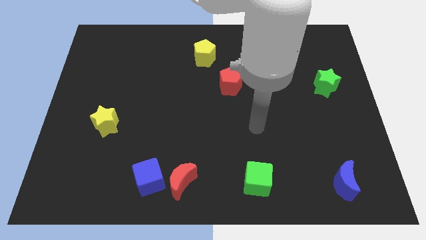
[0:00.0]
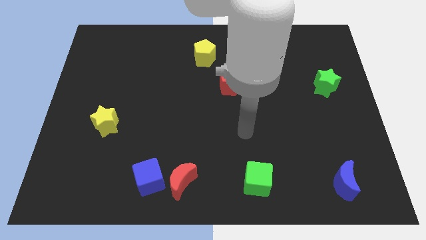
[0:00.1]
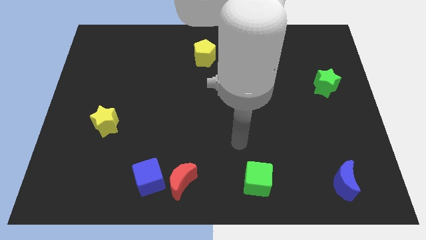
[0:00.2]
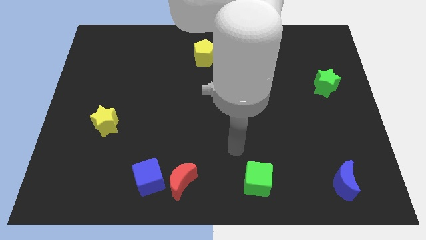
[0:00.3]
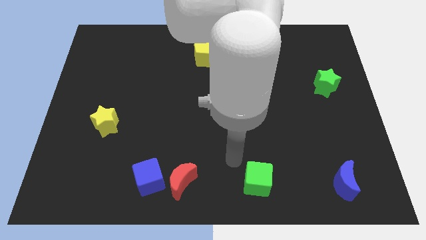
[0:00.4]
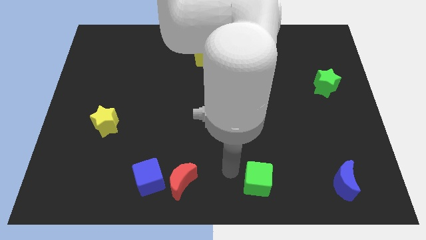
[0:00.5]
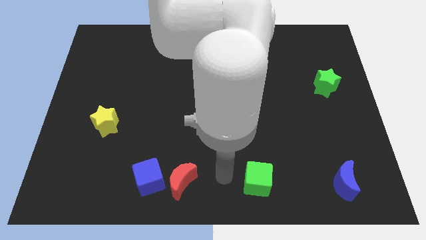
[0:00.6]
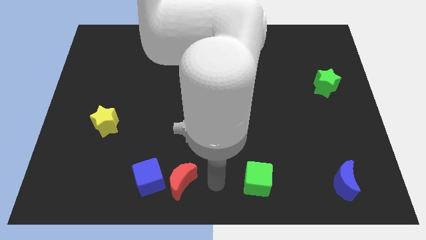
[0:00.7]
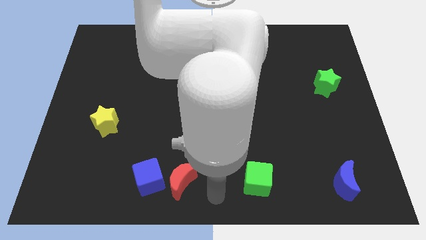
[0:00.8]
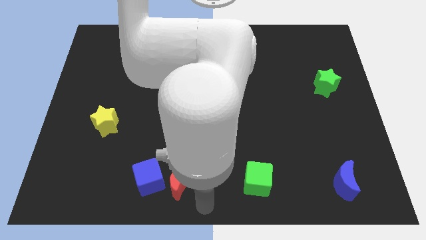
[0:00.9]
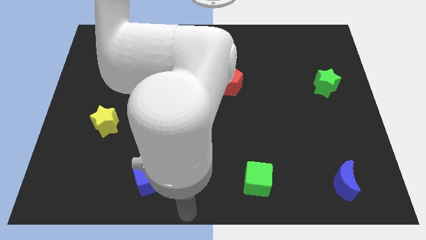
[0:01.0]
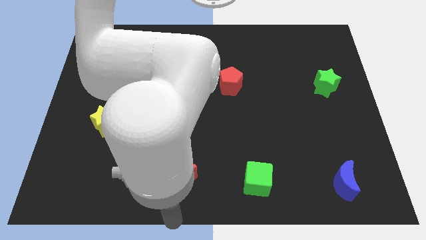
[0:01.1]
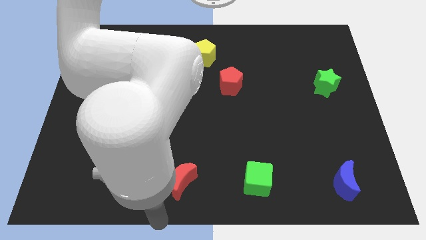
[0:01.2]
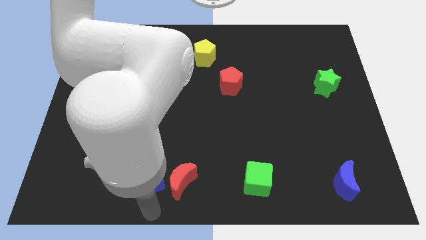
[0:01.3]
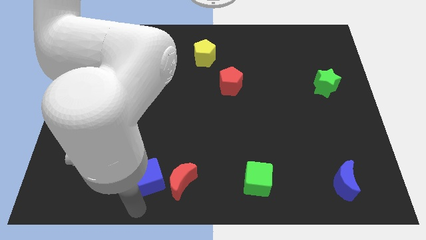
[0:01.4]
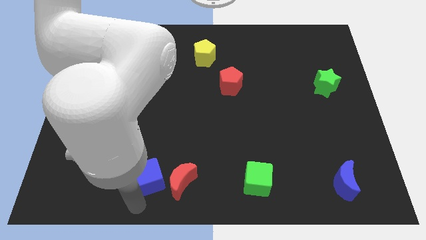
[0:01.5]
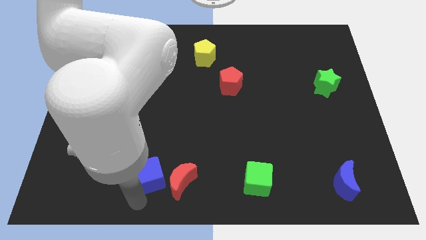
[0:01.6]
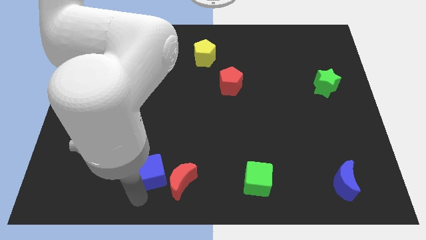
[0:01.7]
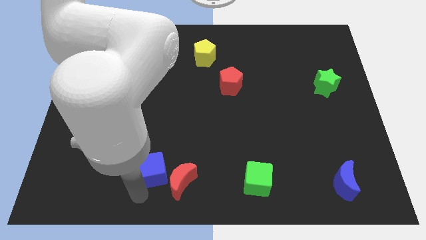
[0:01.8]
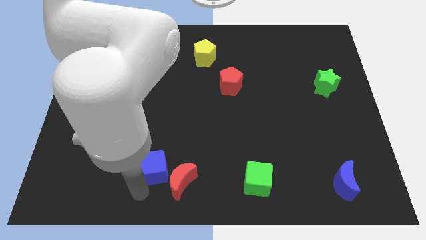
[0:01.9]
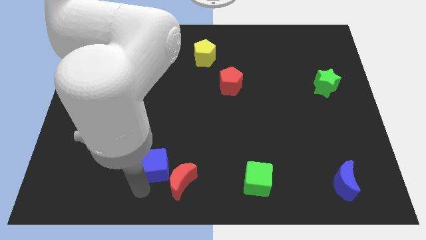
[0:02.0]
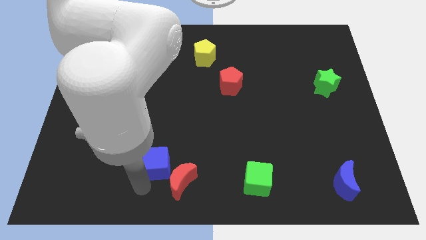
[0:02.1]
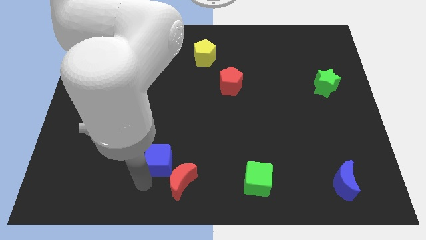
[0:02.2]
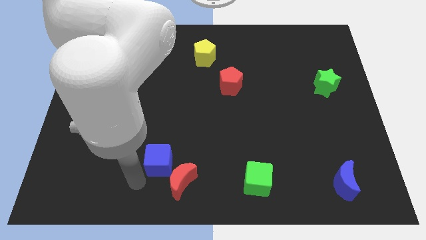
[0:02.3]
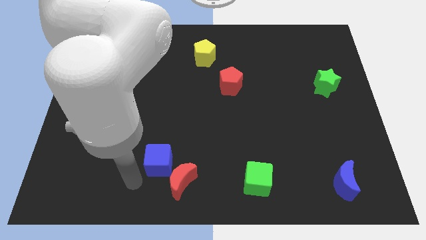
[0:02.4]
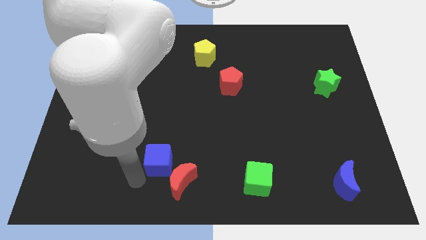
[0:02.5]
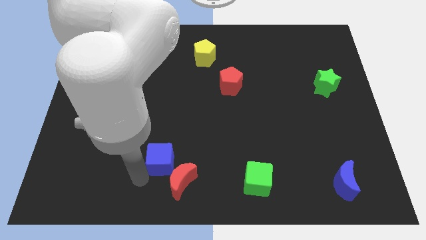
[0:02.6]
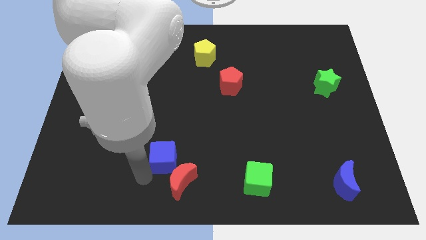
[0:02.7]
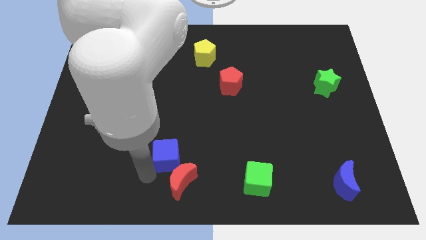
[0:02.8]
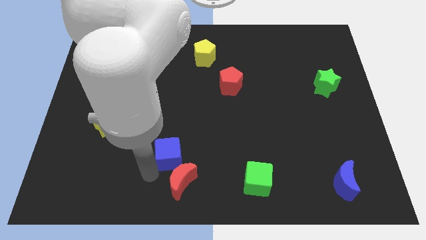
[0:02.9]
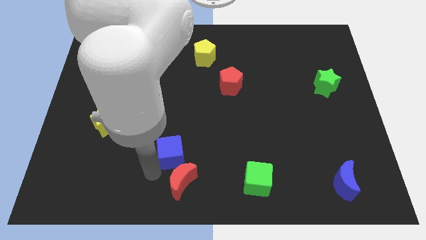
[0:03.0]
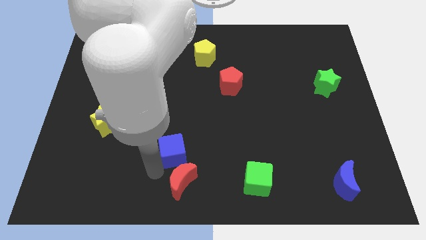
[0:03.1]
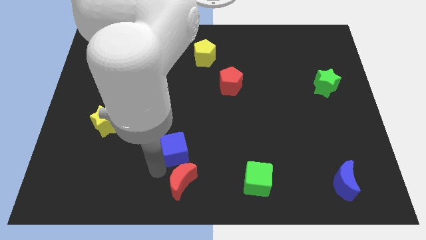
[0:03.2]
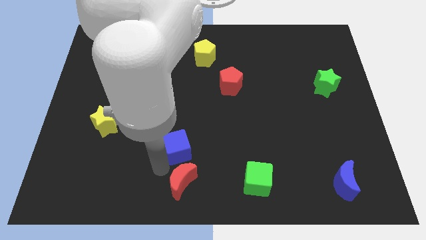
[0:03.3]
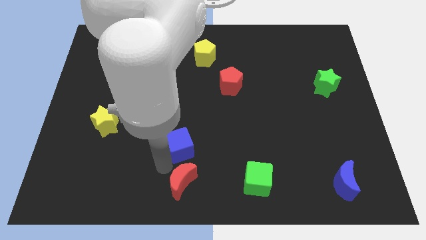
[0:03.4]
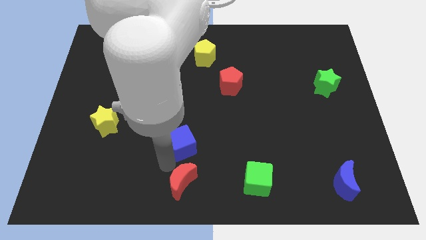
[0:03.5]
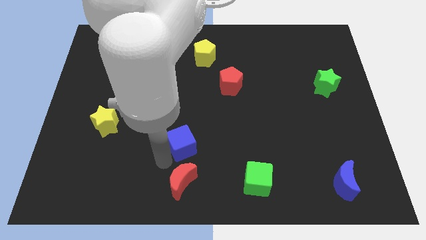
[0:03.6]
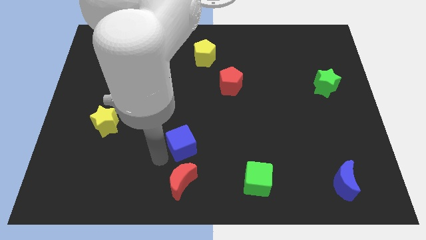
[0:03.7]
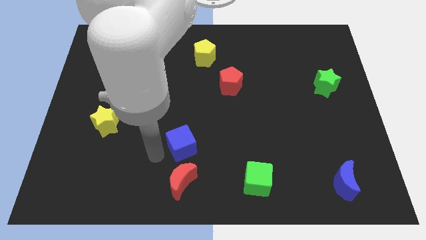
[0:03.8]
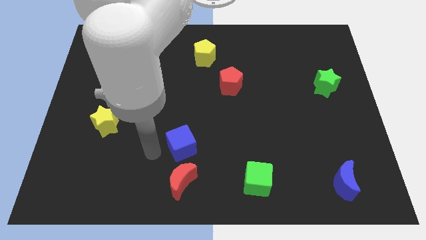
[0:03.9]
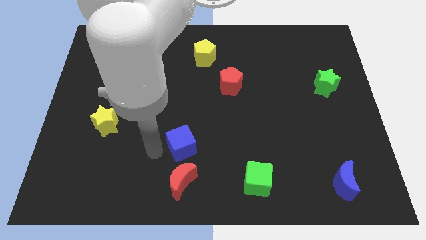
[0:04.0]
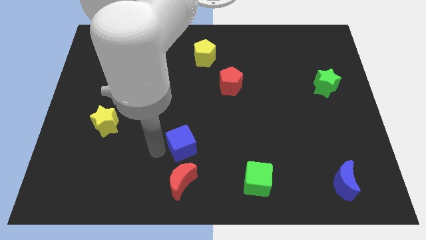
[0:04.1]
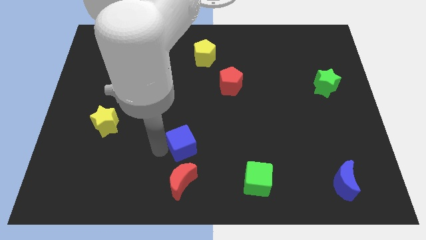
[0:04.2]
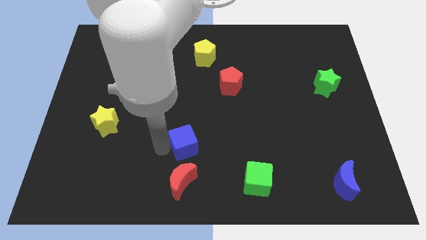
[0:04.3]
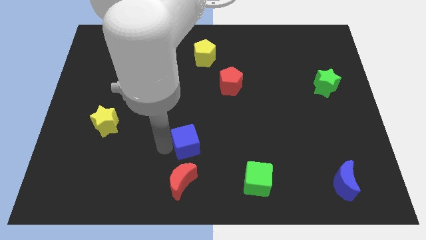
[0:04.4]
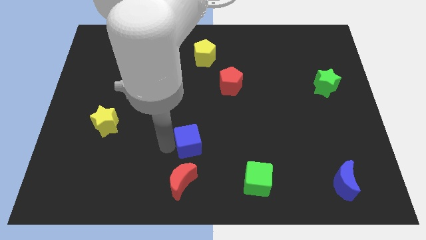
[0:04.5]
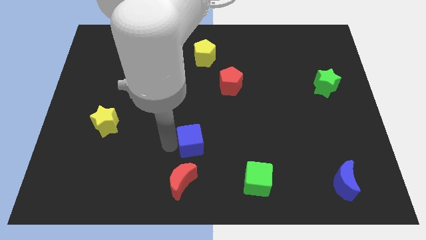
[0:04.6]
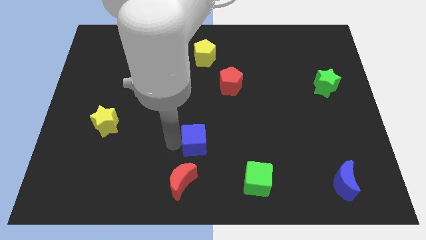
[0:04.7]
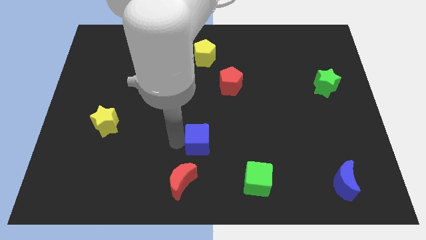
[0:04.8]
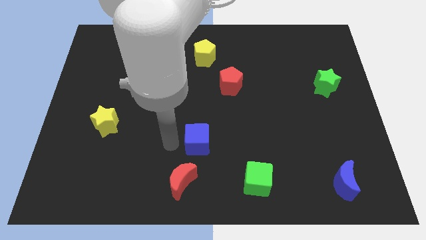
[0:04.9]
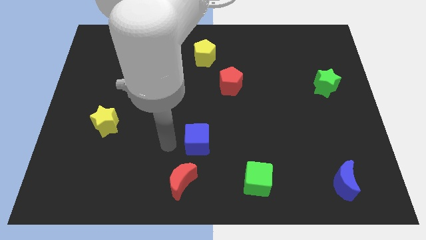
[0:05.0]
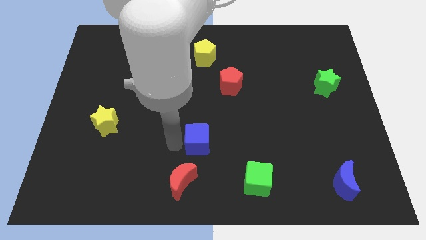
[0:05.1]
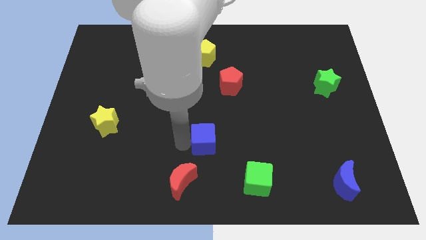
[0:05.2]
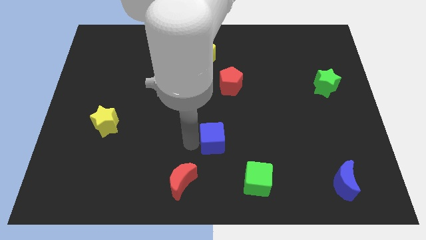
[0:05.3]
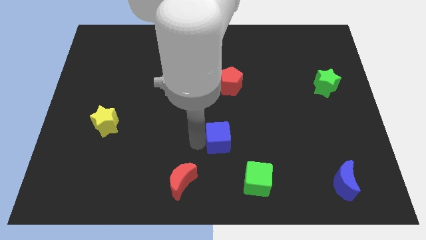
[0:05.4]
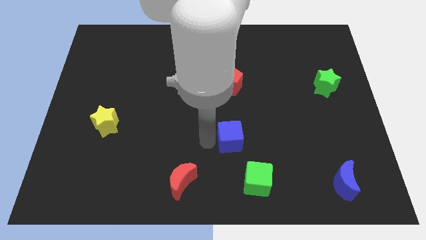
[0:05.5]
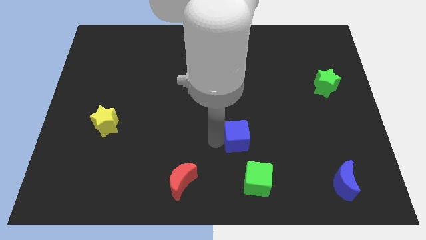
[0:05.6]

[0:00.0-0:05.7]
put the blue cube to the top side of the green cube

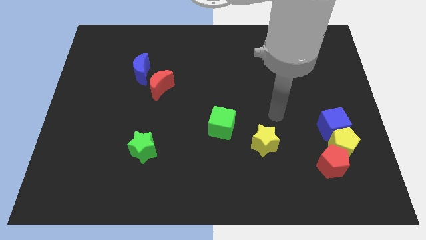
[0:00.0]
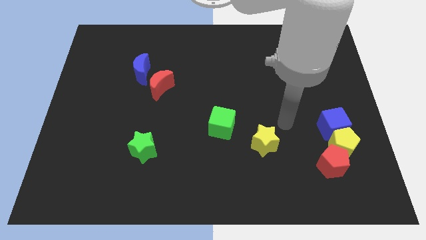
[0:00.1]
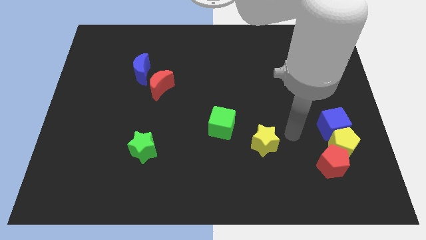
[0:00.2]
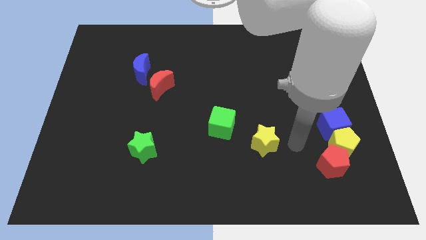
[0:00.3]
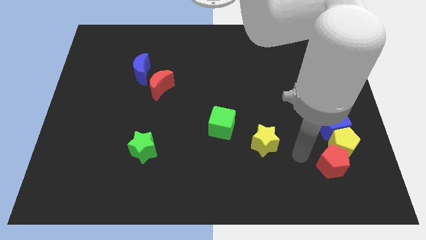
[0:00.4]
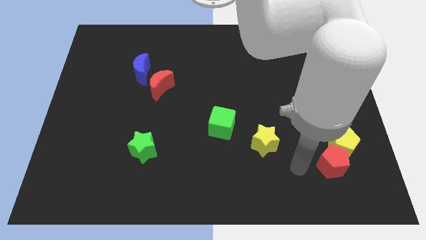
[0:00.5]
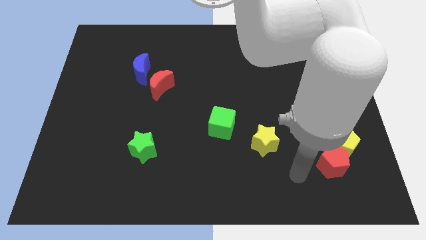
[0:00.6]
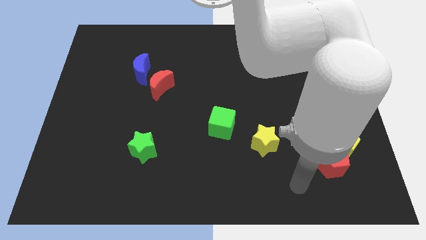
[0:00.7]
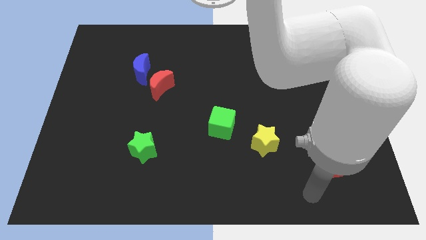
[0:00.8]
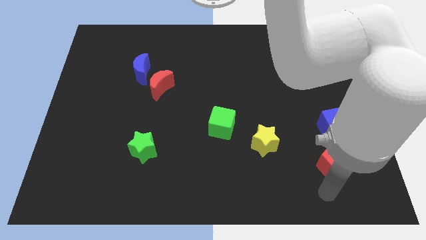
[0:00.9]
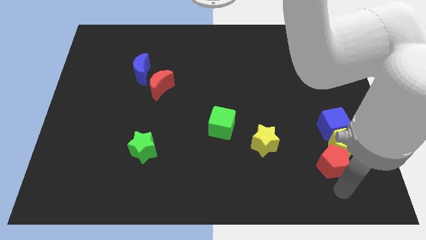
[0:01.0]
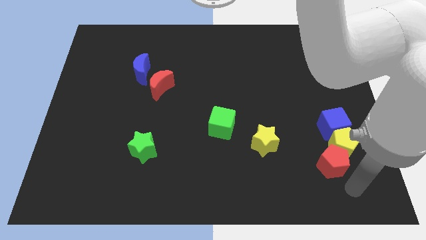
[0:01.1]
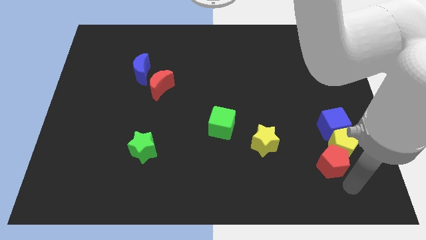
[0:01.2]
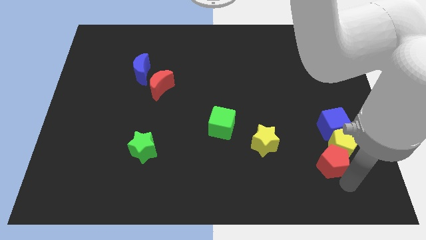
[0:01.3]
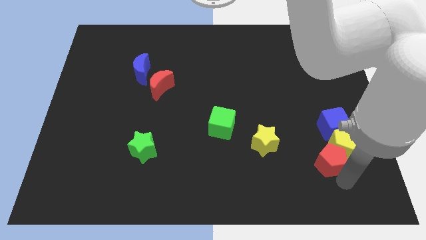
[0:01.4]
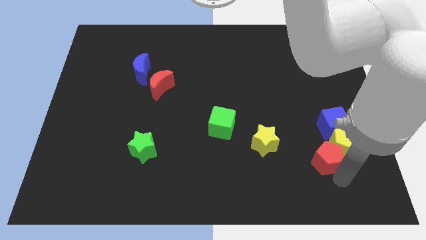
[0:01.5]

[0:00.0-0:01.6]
push the red pentagon to the right of the yellow star
